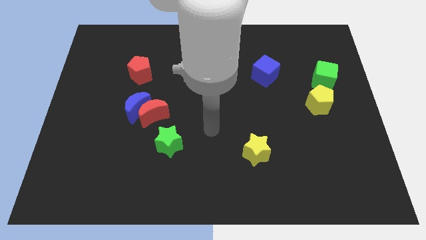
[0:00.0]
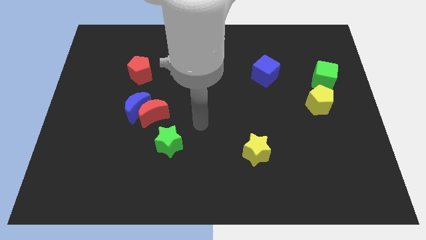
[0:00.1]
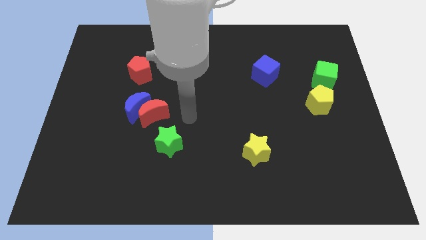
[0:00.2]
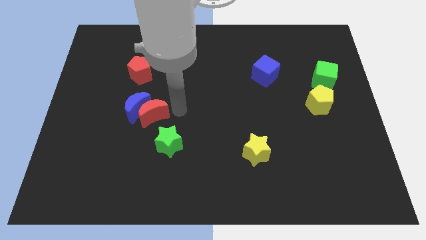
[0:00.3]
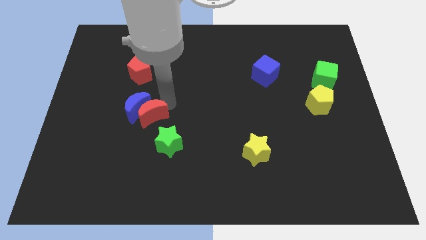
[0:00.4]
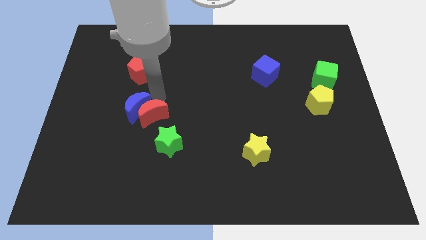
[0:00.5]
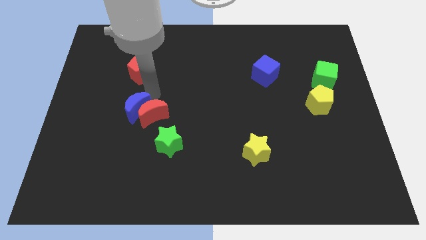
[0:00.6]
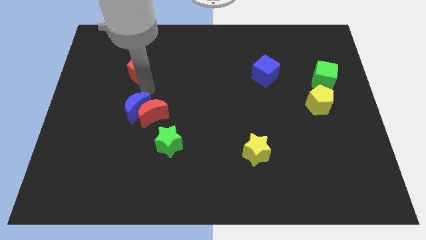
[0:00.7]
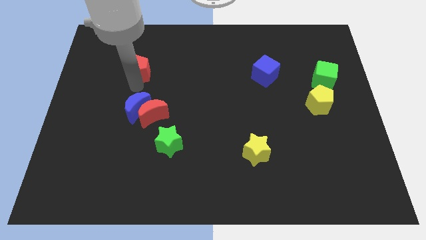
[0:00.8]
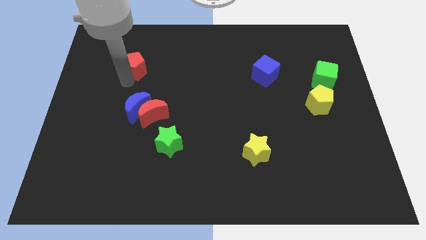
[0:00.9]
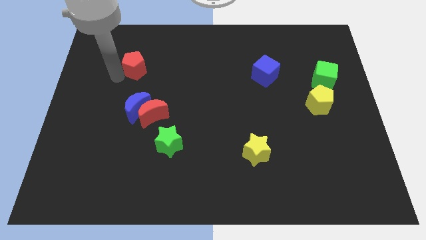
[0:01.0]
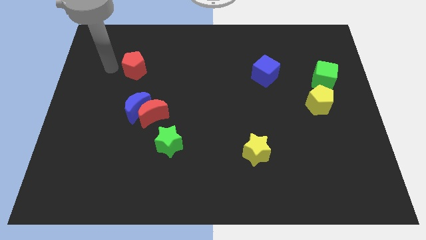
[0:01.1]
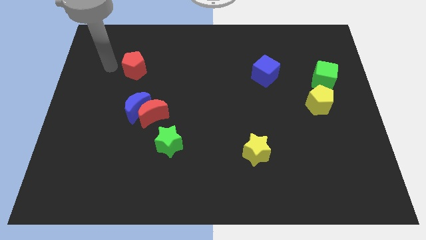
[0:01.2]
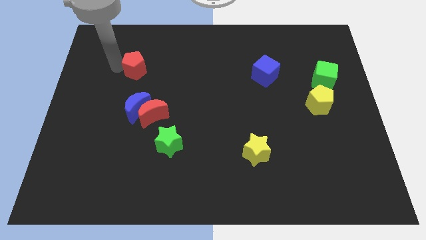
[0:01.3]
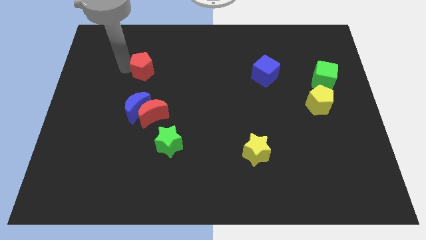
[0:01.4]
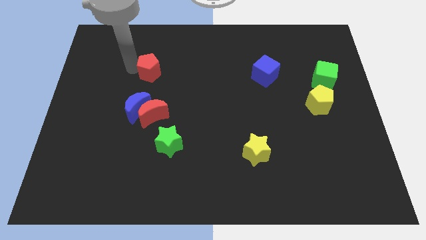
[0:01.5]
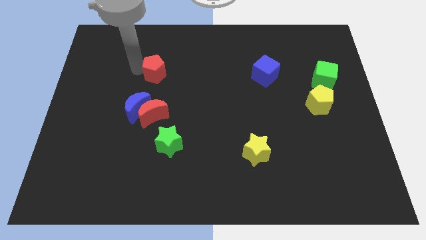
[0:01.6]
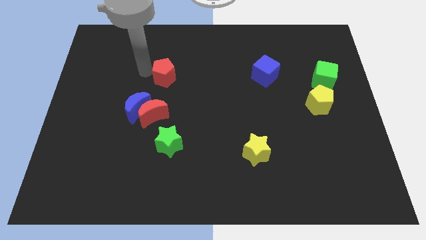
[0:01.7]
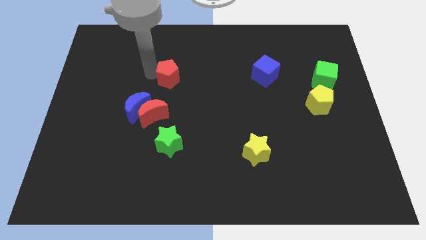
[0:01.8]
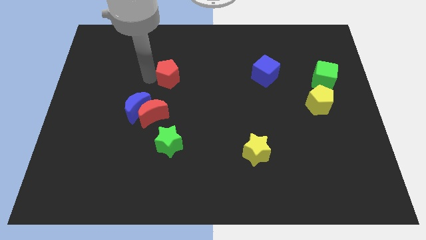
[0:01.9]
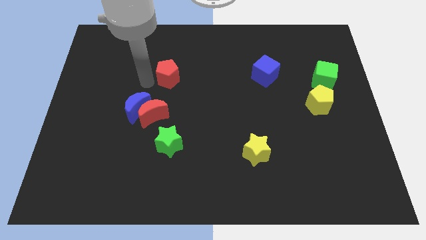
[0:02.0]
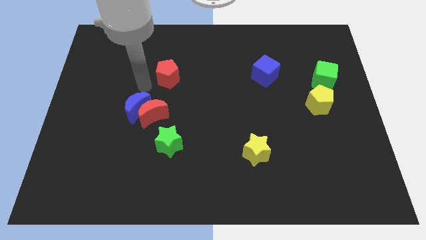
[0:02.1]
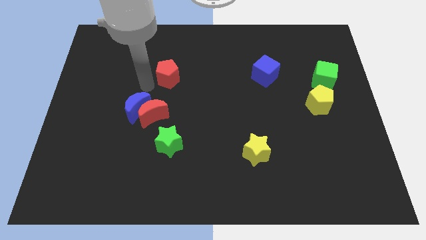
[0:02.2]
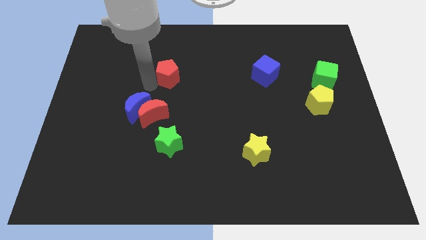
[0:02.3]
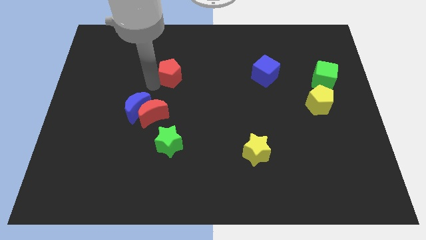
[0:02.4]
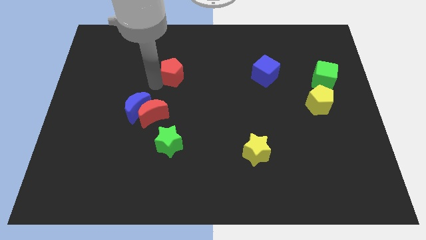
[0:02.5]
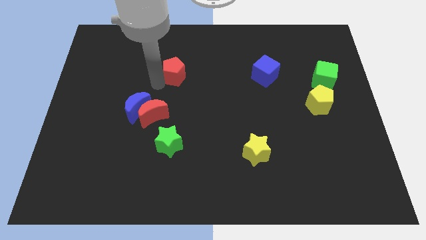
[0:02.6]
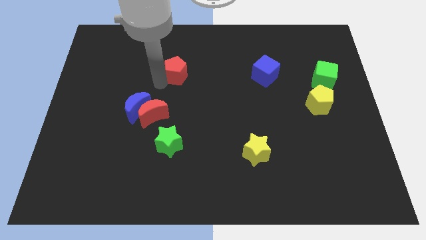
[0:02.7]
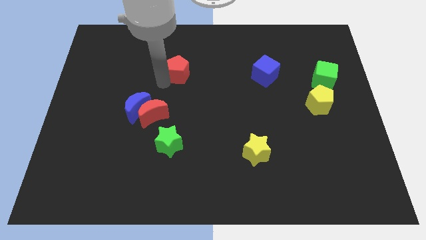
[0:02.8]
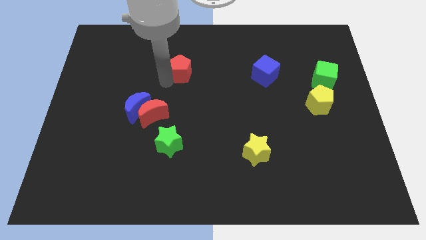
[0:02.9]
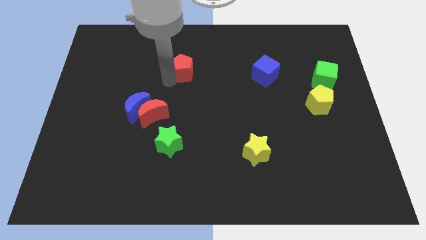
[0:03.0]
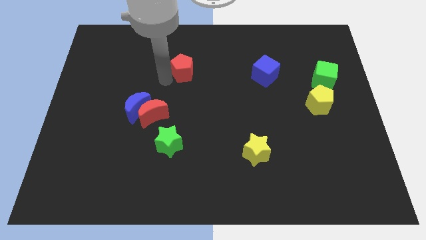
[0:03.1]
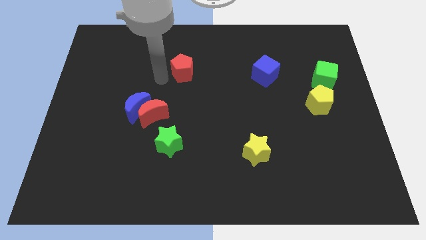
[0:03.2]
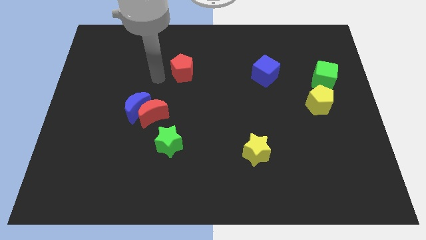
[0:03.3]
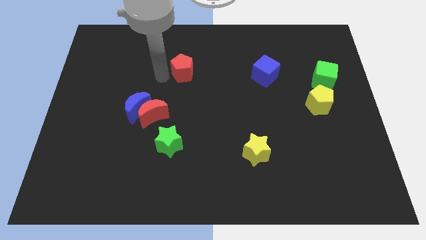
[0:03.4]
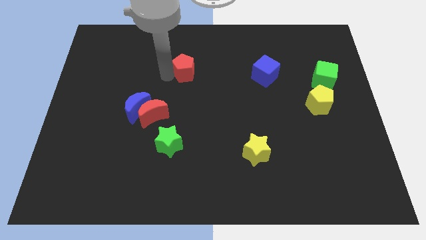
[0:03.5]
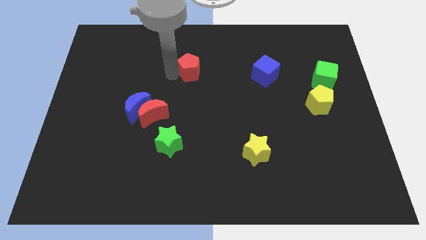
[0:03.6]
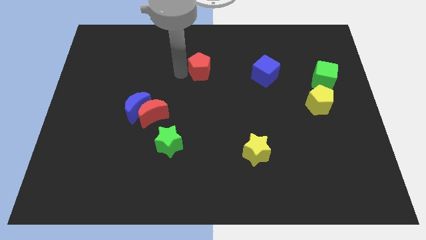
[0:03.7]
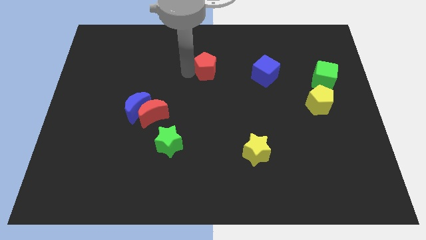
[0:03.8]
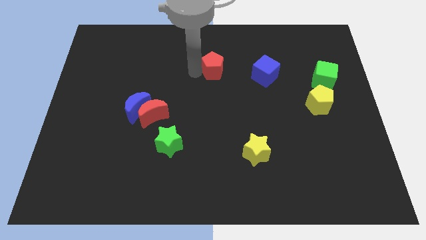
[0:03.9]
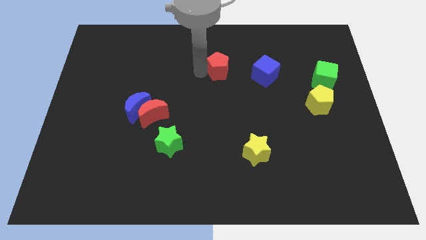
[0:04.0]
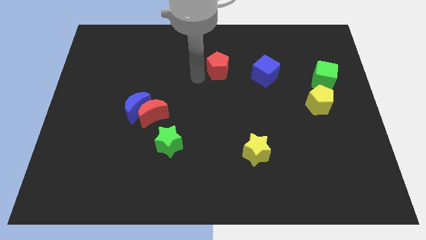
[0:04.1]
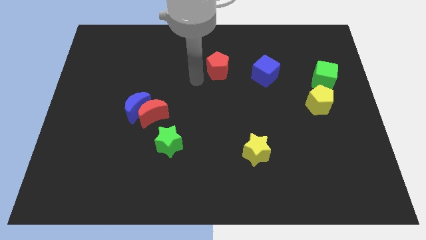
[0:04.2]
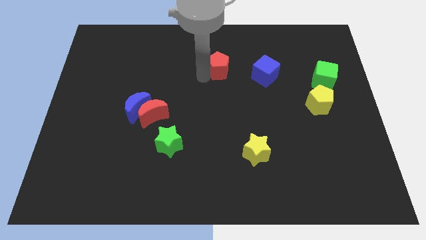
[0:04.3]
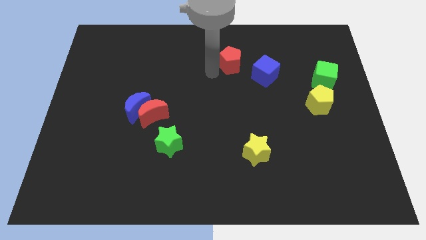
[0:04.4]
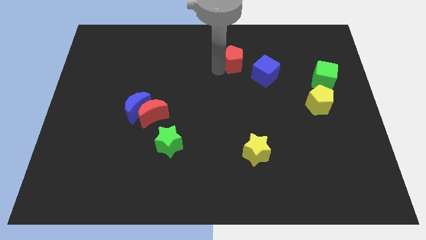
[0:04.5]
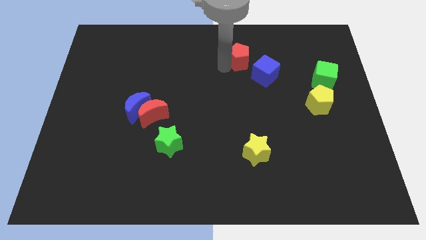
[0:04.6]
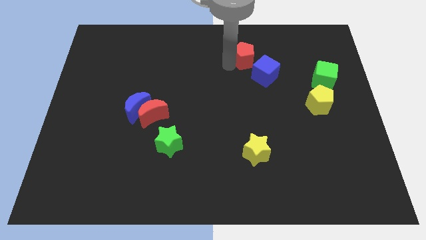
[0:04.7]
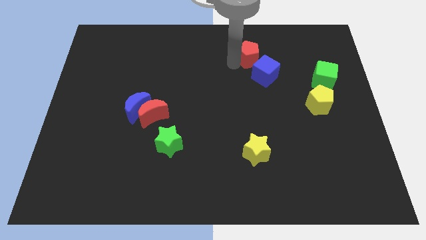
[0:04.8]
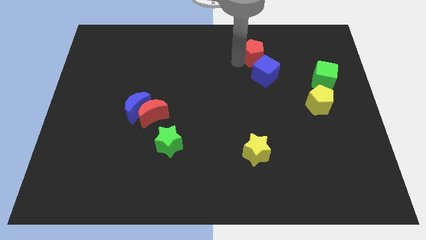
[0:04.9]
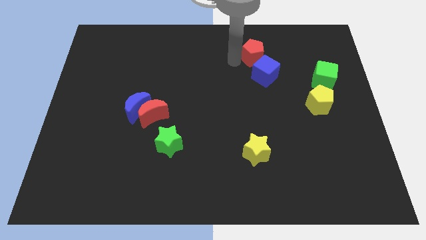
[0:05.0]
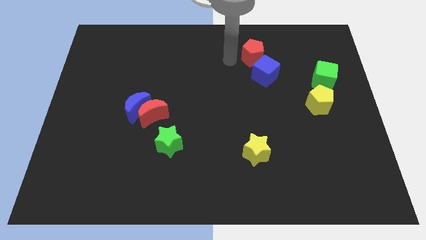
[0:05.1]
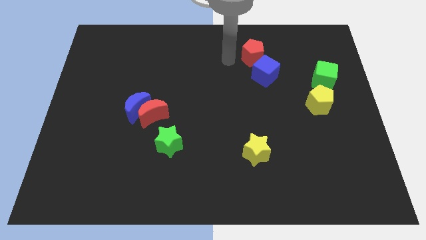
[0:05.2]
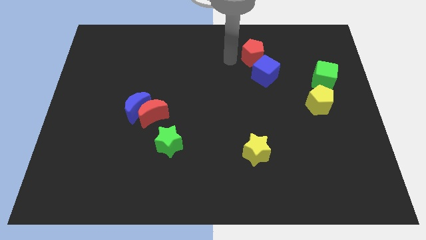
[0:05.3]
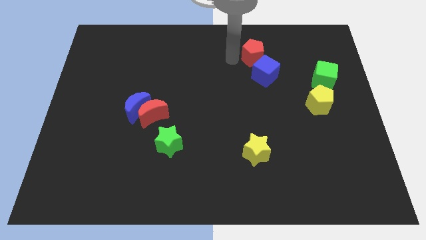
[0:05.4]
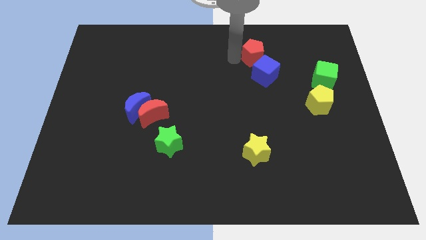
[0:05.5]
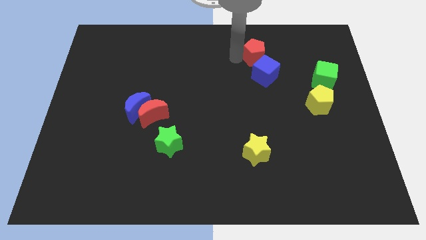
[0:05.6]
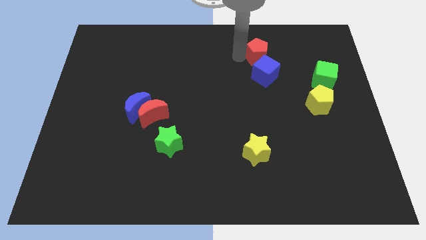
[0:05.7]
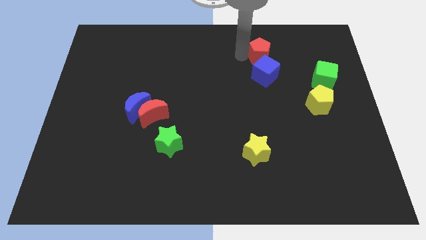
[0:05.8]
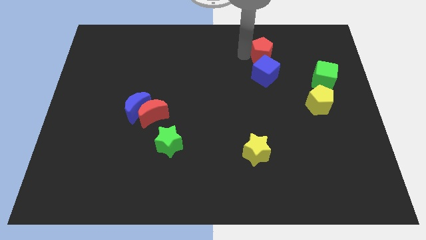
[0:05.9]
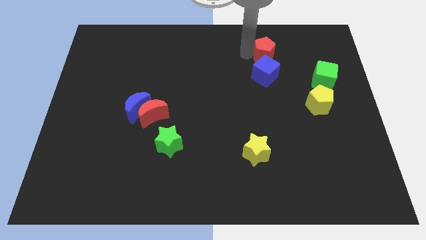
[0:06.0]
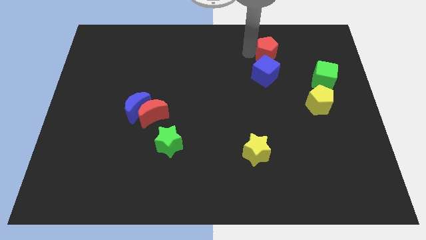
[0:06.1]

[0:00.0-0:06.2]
put the red pentagon to the top right of the blue cube
